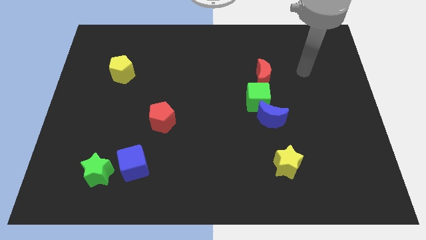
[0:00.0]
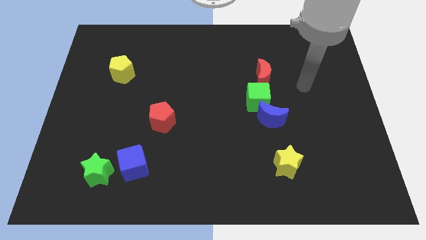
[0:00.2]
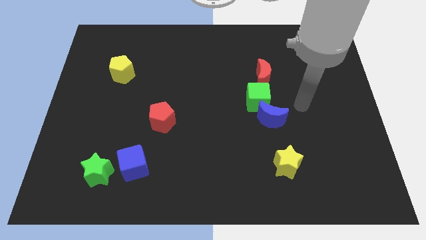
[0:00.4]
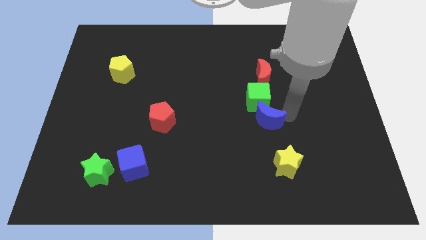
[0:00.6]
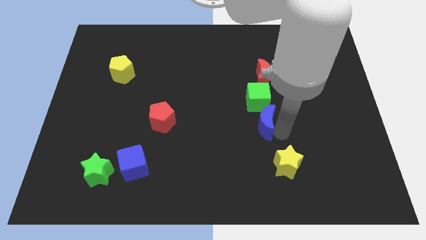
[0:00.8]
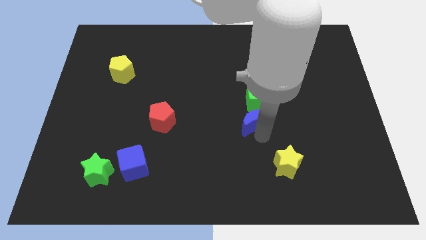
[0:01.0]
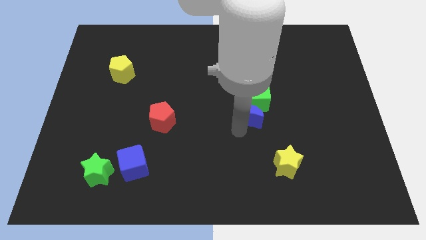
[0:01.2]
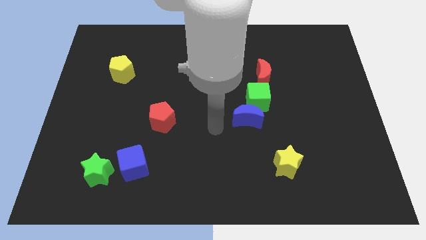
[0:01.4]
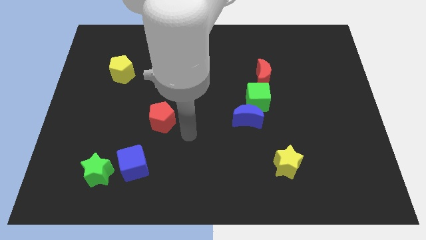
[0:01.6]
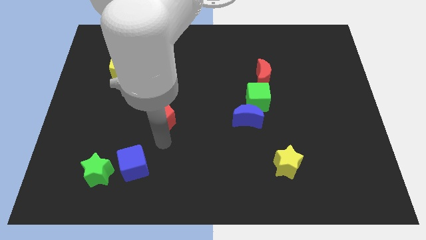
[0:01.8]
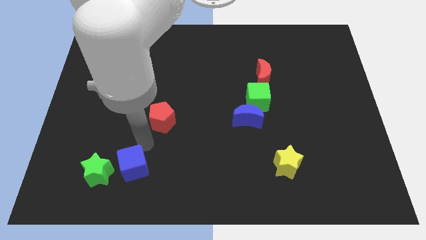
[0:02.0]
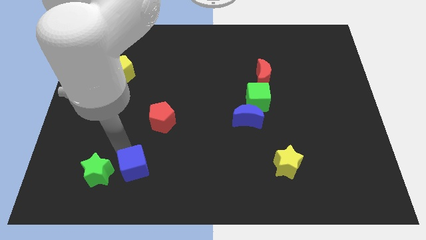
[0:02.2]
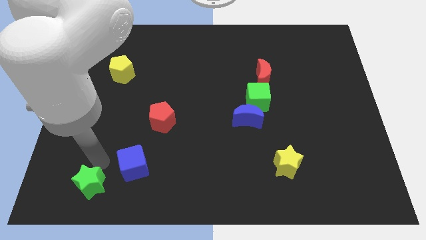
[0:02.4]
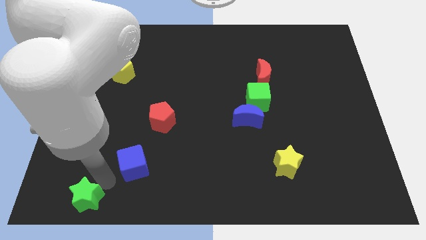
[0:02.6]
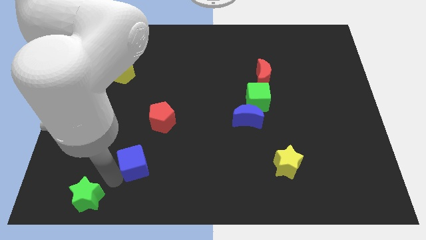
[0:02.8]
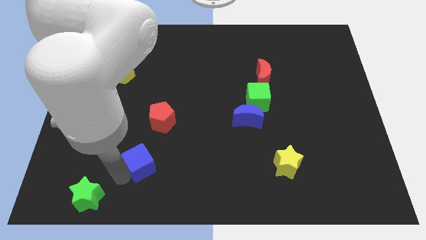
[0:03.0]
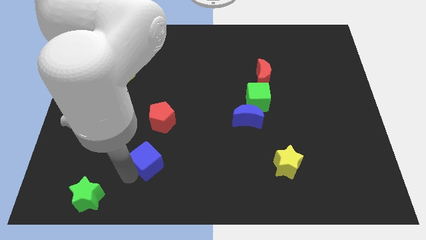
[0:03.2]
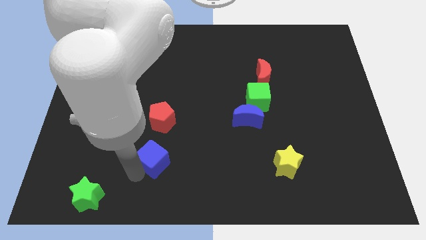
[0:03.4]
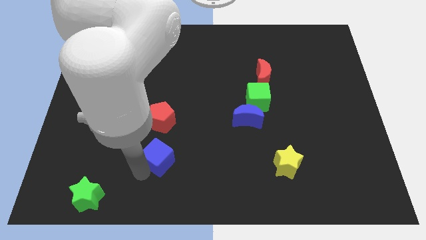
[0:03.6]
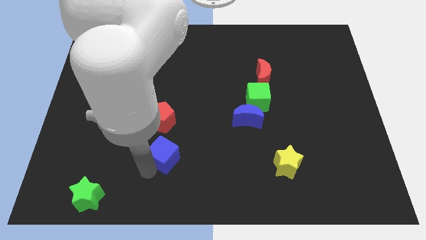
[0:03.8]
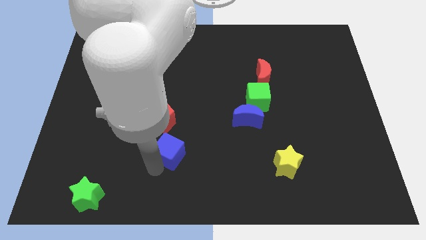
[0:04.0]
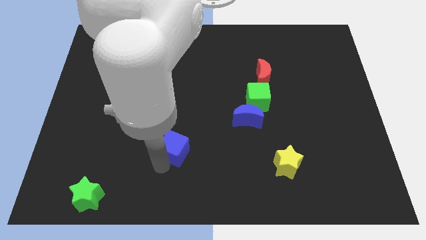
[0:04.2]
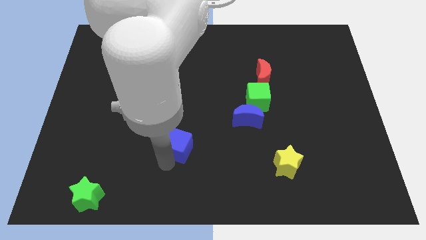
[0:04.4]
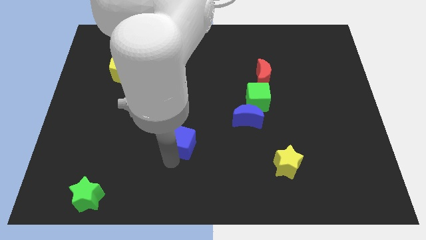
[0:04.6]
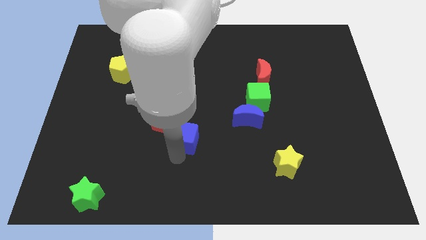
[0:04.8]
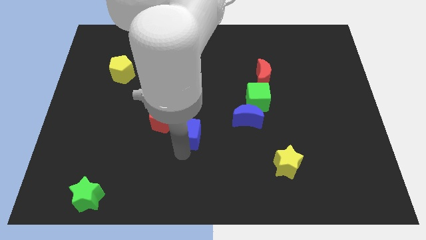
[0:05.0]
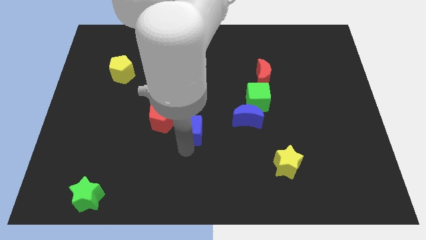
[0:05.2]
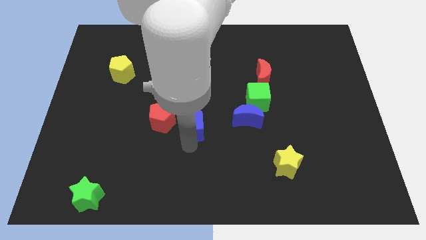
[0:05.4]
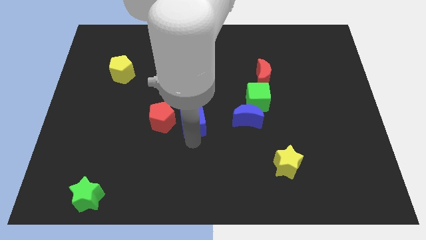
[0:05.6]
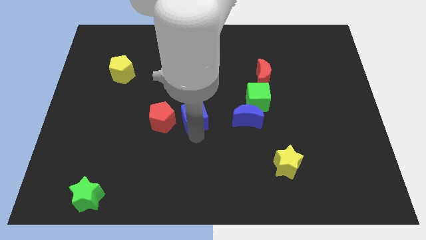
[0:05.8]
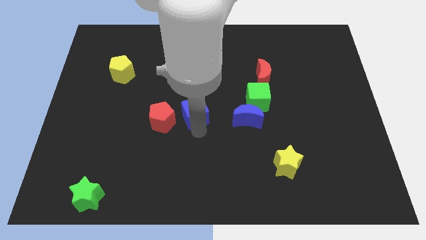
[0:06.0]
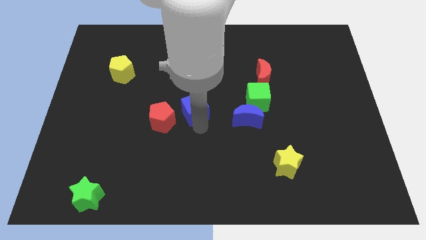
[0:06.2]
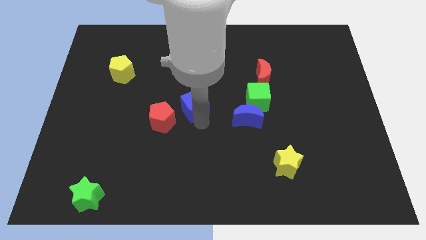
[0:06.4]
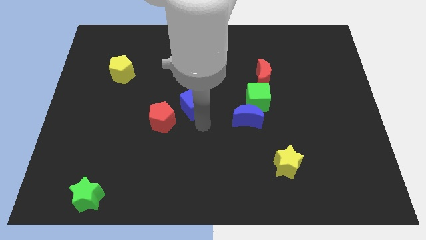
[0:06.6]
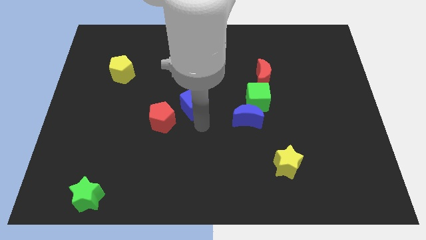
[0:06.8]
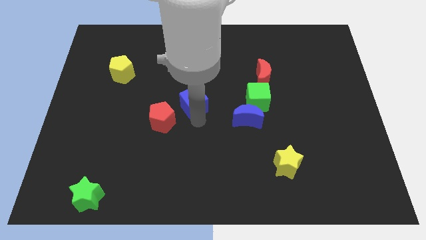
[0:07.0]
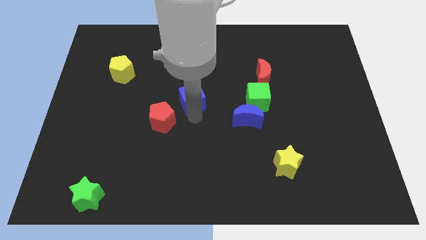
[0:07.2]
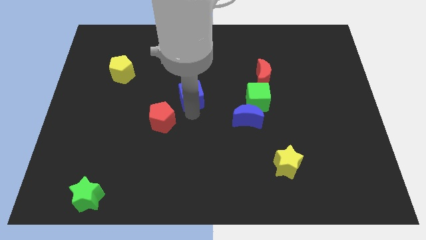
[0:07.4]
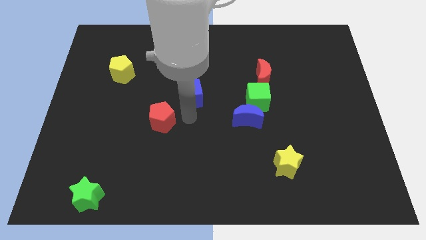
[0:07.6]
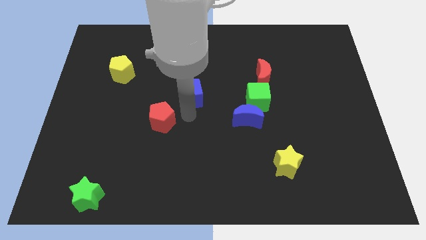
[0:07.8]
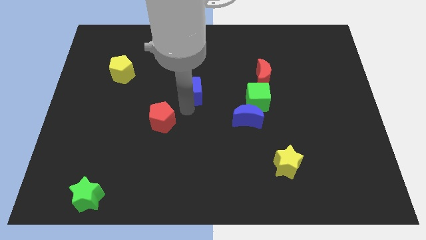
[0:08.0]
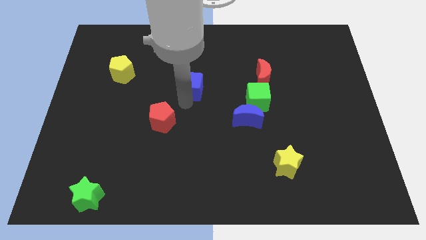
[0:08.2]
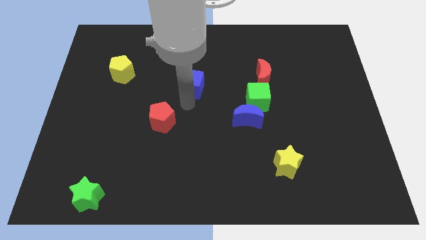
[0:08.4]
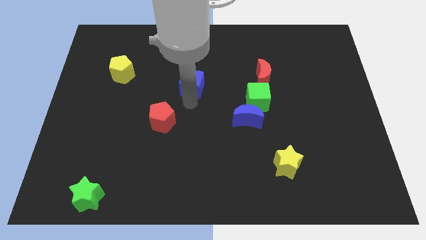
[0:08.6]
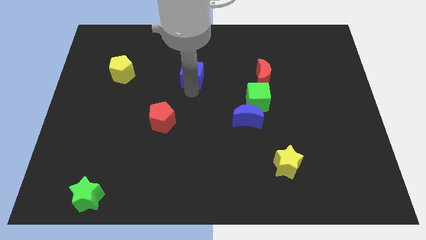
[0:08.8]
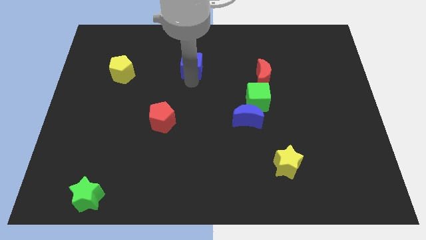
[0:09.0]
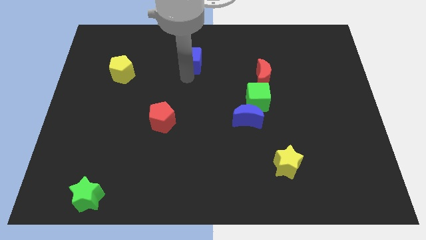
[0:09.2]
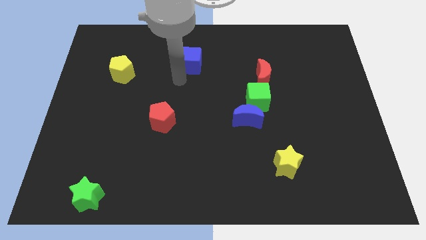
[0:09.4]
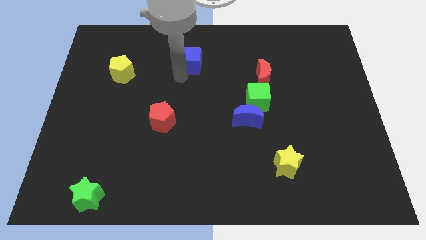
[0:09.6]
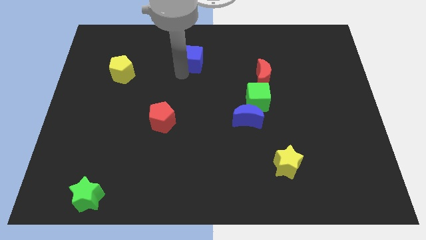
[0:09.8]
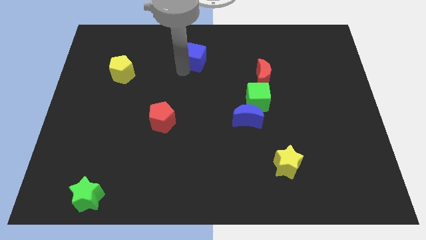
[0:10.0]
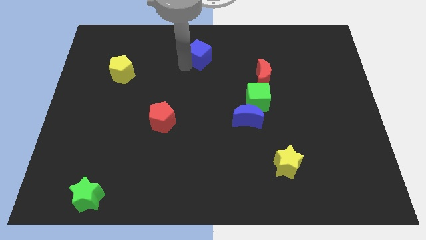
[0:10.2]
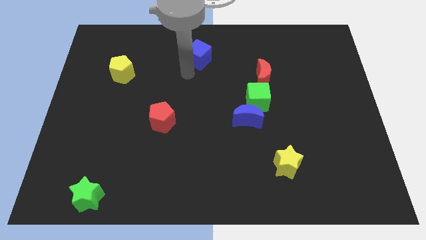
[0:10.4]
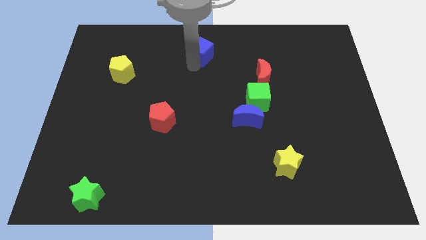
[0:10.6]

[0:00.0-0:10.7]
push the blue cube to the top side
